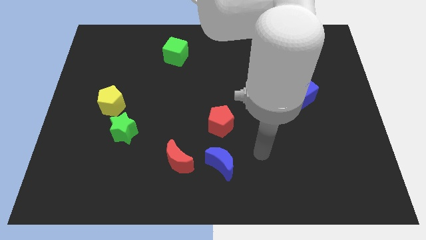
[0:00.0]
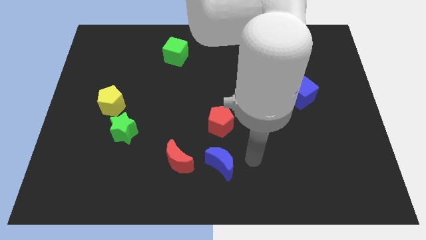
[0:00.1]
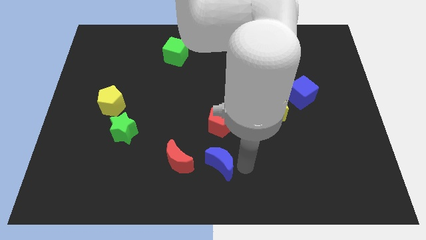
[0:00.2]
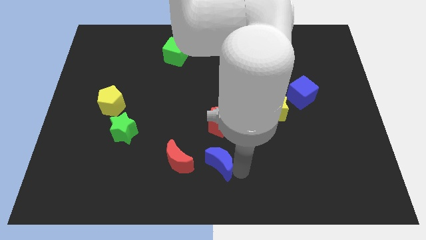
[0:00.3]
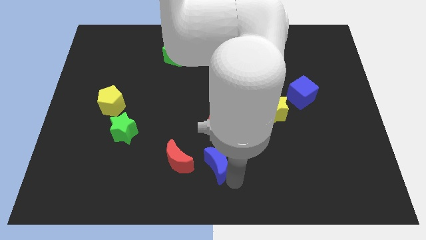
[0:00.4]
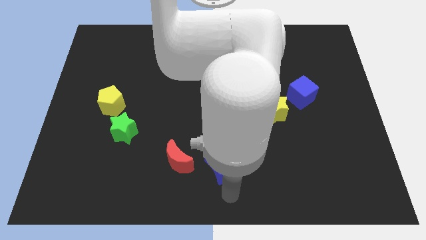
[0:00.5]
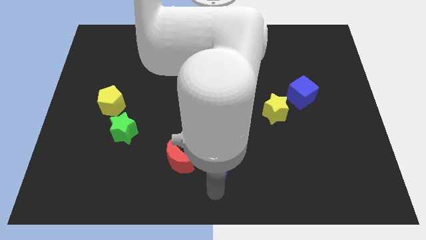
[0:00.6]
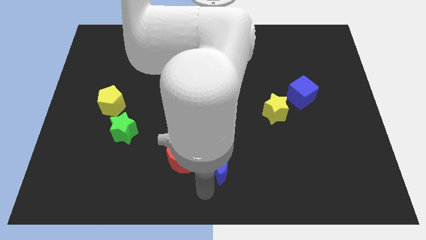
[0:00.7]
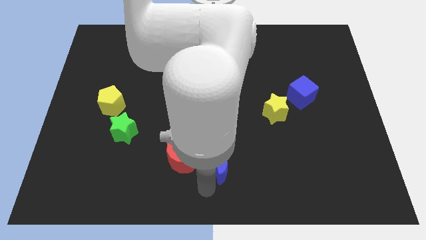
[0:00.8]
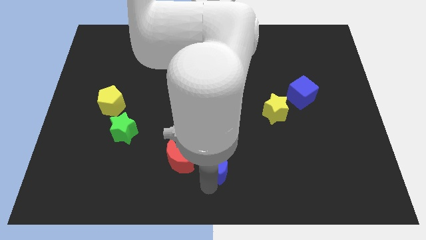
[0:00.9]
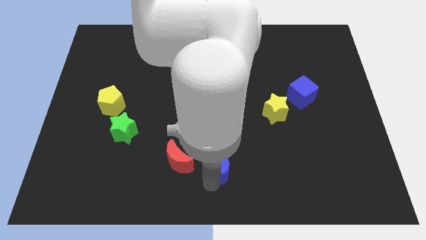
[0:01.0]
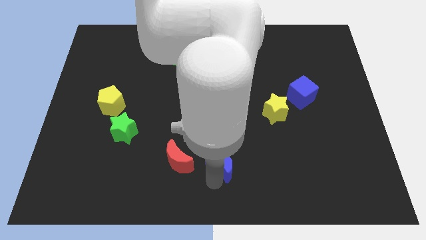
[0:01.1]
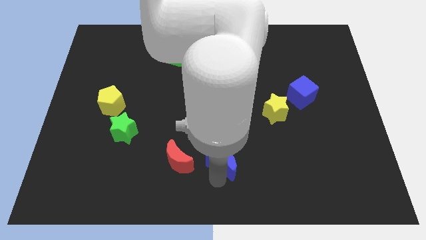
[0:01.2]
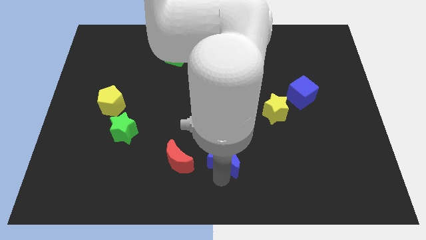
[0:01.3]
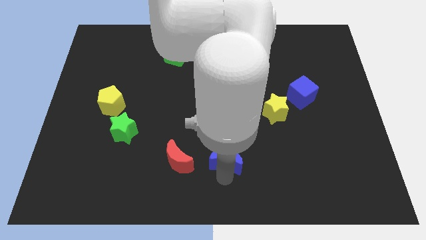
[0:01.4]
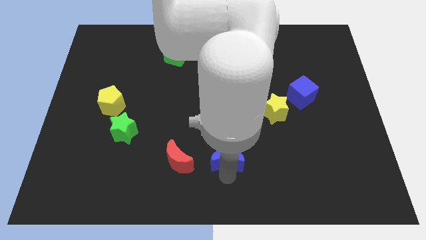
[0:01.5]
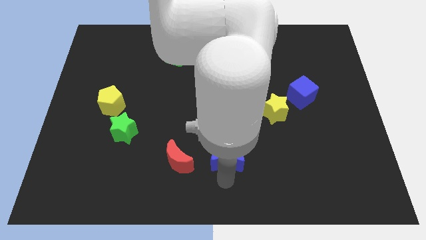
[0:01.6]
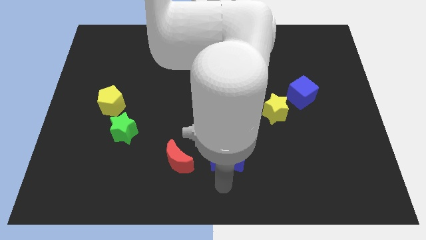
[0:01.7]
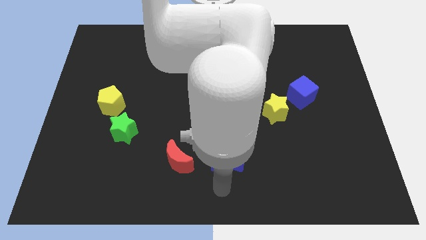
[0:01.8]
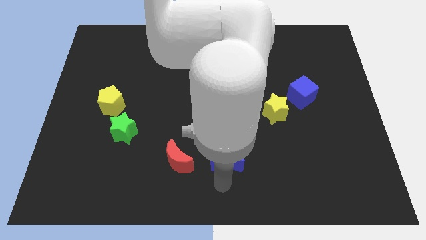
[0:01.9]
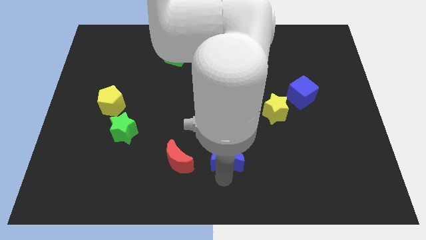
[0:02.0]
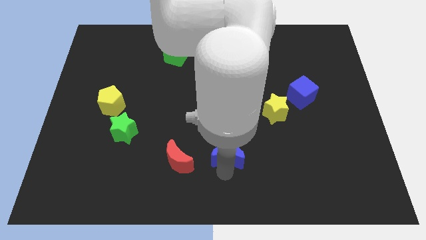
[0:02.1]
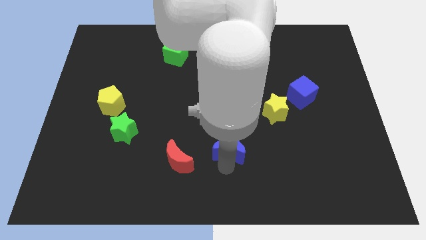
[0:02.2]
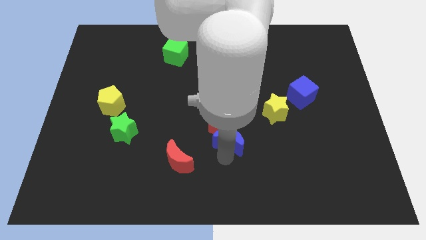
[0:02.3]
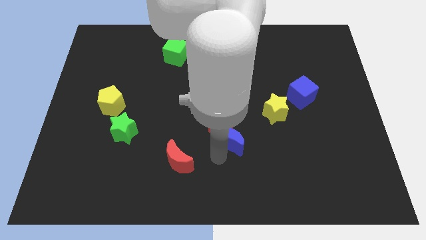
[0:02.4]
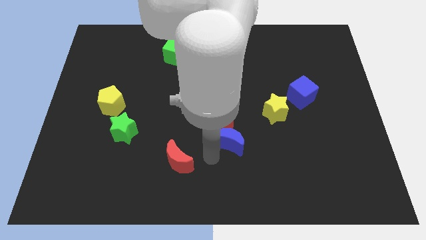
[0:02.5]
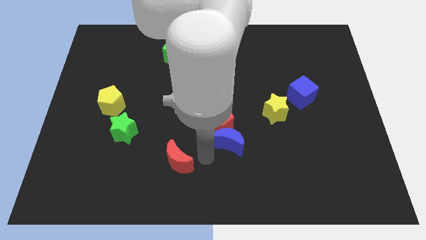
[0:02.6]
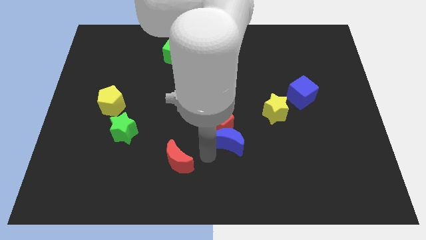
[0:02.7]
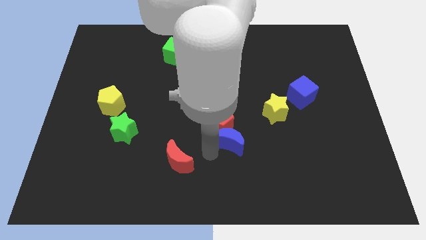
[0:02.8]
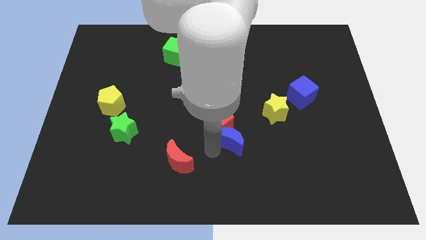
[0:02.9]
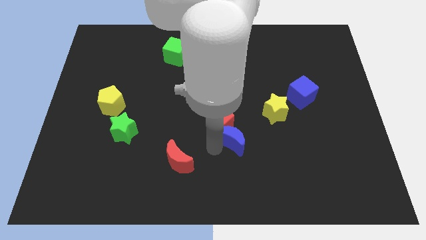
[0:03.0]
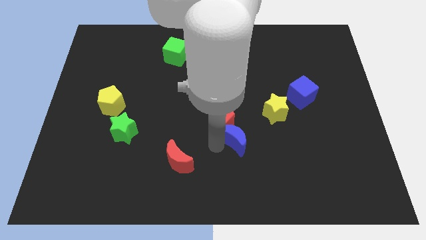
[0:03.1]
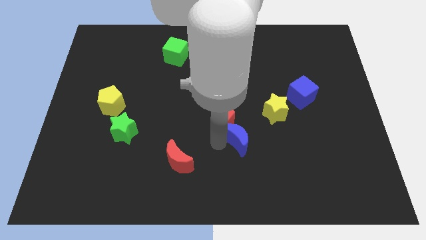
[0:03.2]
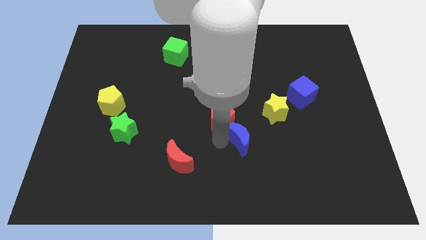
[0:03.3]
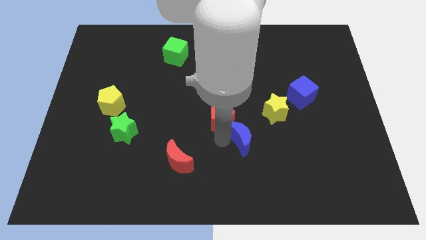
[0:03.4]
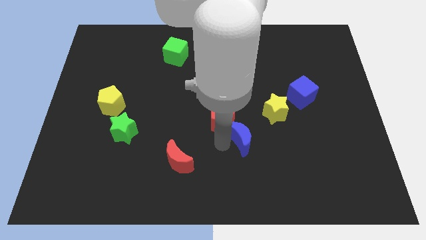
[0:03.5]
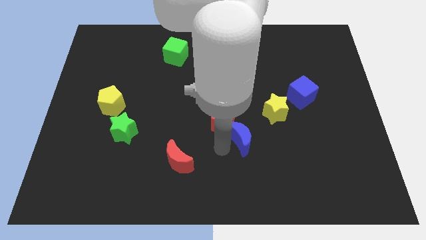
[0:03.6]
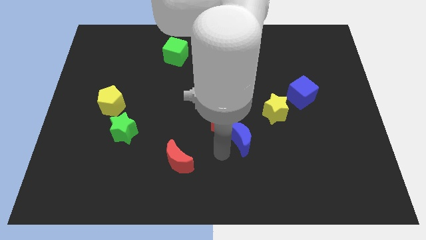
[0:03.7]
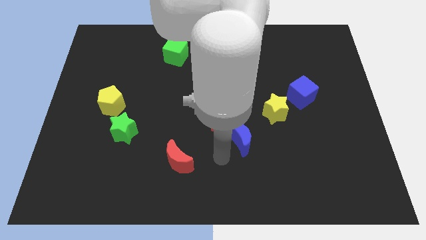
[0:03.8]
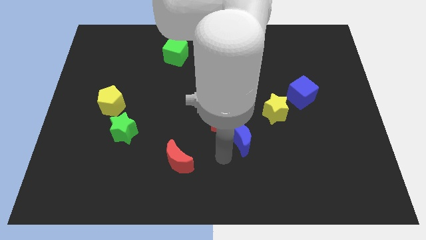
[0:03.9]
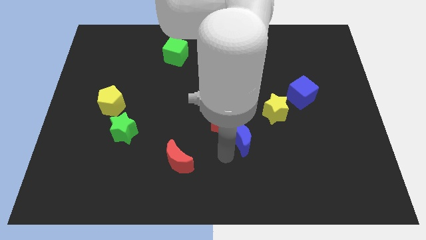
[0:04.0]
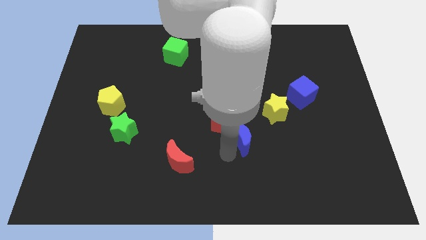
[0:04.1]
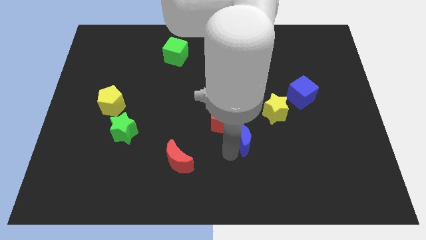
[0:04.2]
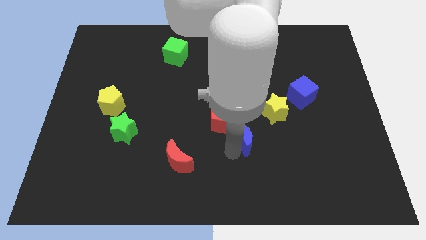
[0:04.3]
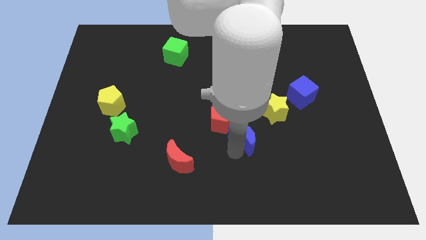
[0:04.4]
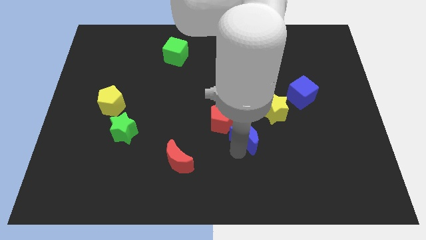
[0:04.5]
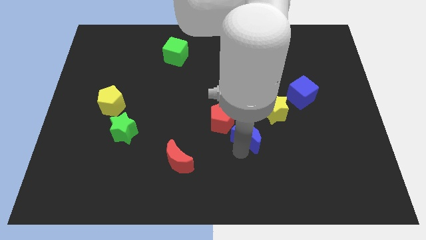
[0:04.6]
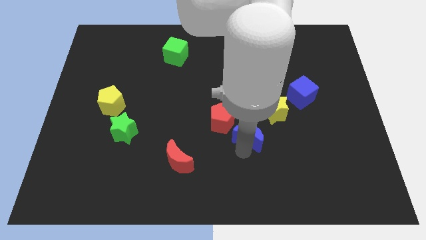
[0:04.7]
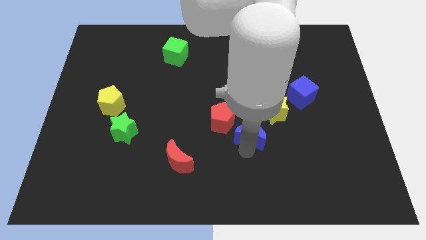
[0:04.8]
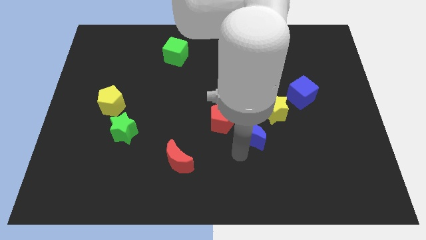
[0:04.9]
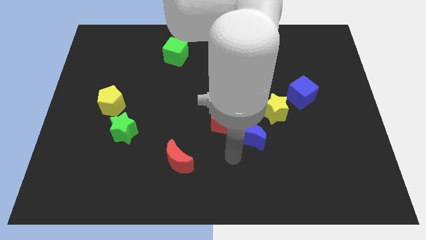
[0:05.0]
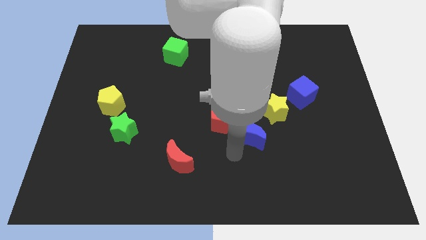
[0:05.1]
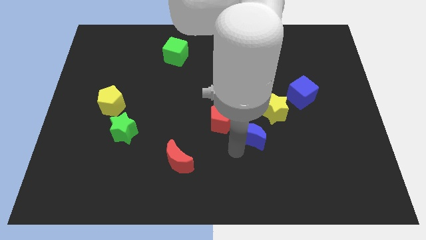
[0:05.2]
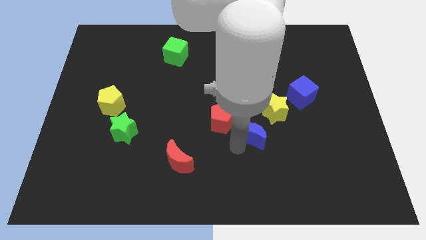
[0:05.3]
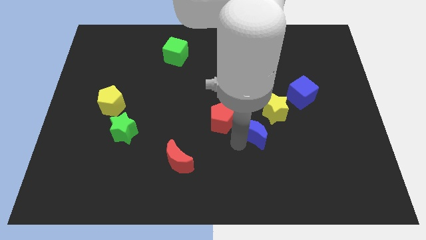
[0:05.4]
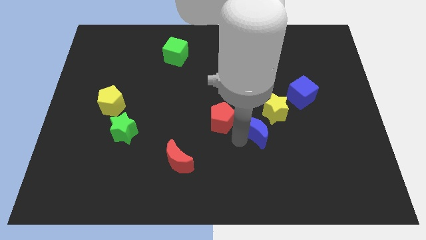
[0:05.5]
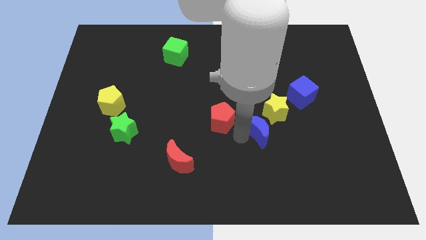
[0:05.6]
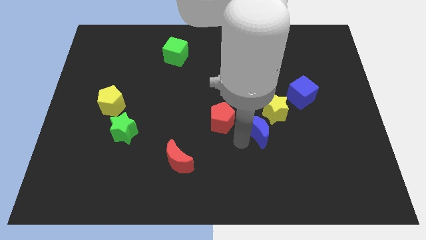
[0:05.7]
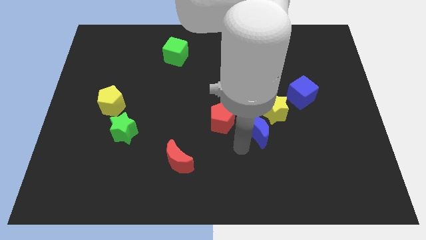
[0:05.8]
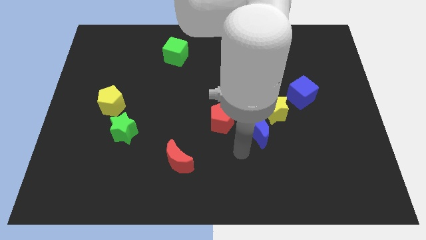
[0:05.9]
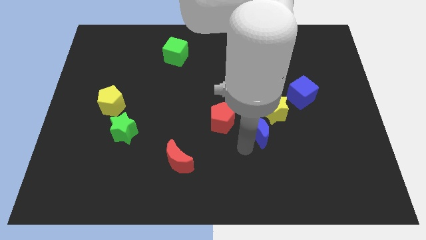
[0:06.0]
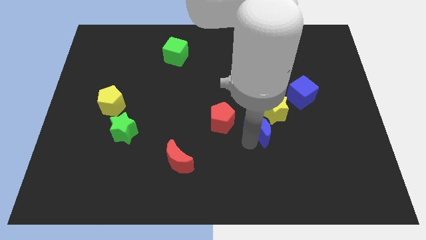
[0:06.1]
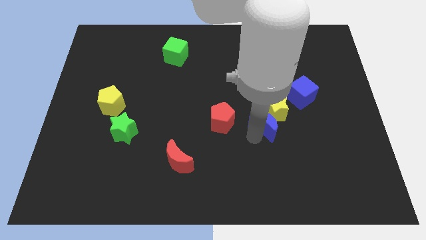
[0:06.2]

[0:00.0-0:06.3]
push the blue moon close to the yellow star

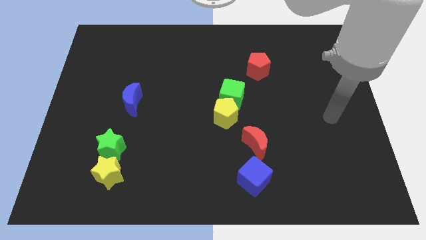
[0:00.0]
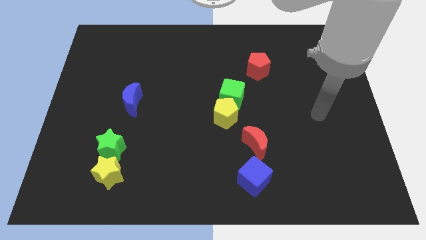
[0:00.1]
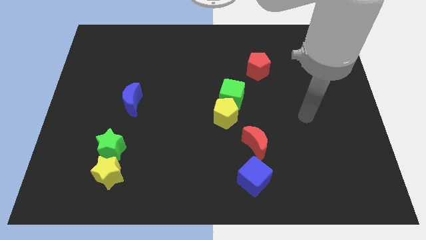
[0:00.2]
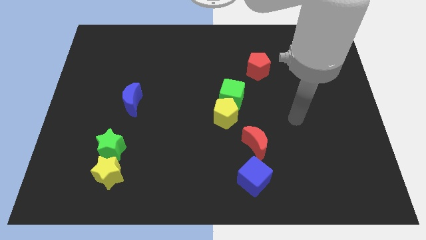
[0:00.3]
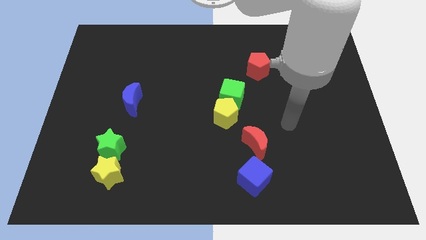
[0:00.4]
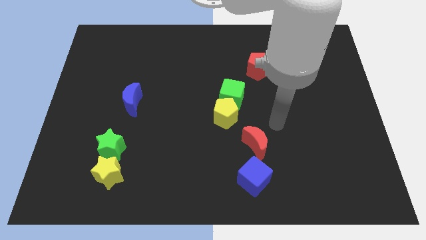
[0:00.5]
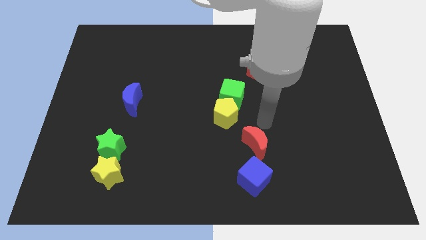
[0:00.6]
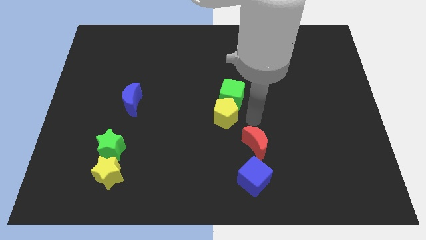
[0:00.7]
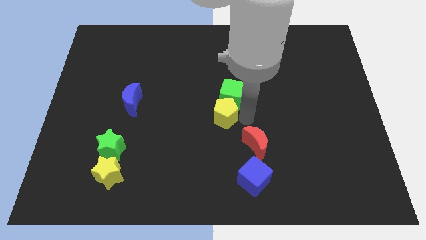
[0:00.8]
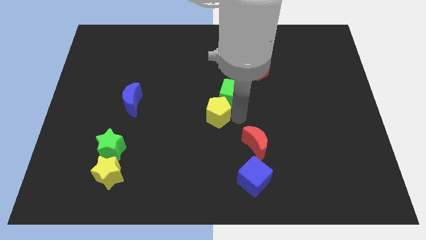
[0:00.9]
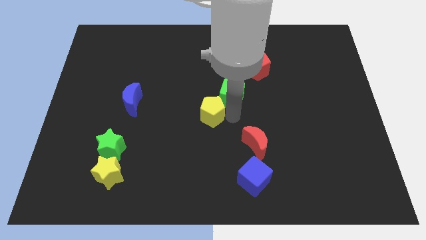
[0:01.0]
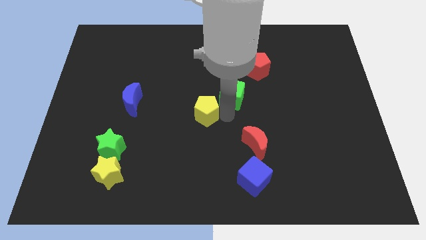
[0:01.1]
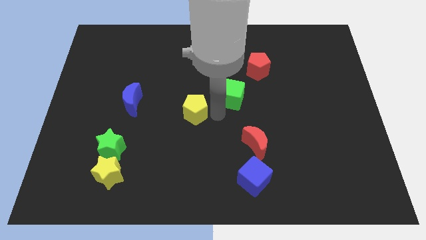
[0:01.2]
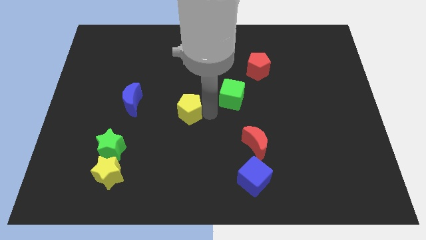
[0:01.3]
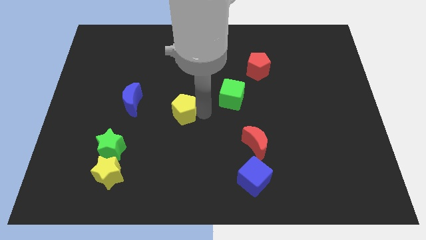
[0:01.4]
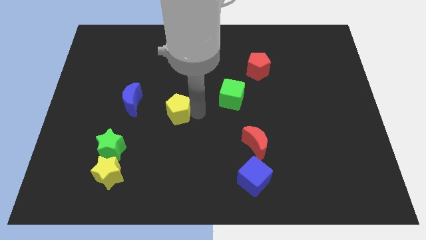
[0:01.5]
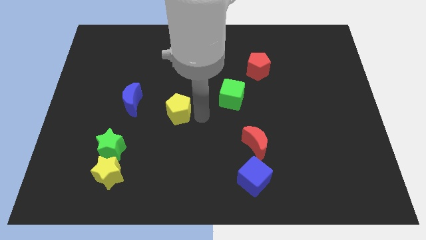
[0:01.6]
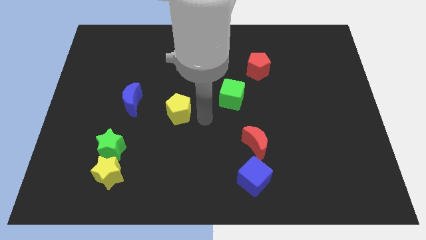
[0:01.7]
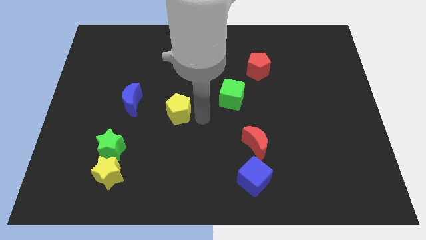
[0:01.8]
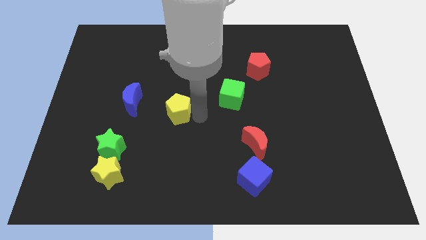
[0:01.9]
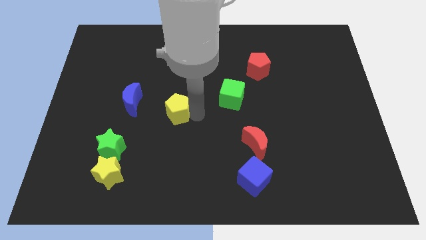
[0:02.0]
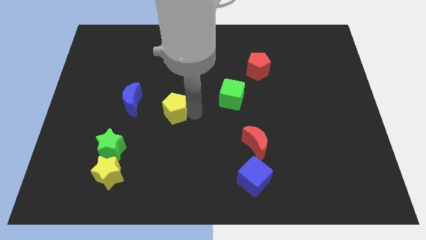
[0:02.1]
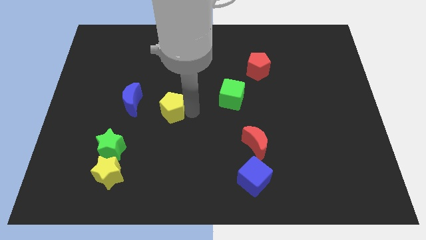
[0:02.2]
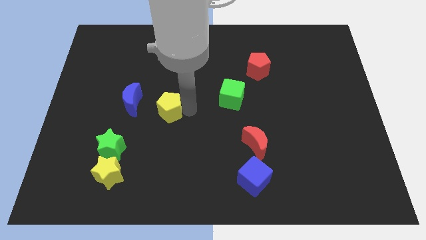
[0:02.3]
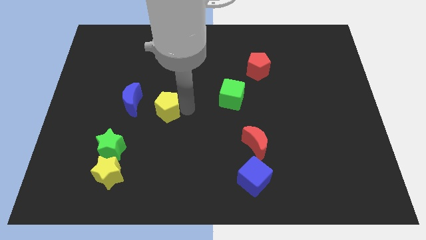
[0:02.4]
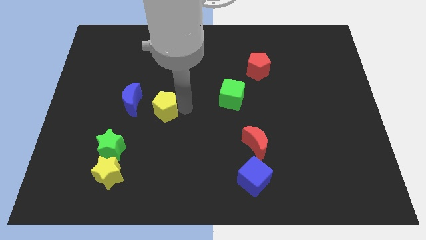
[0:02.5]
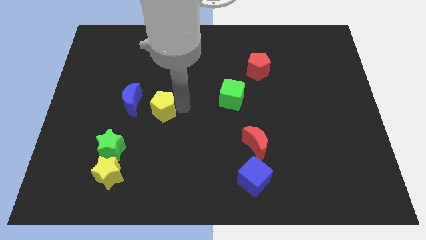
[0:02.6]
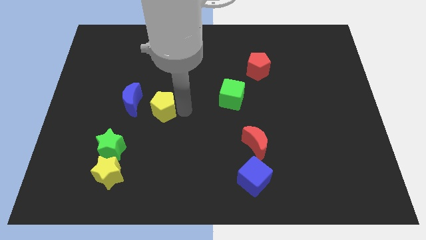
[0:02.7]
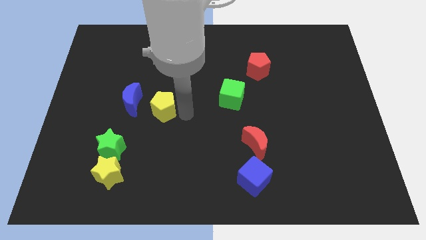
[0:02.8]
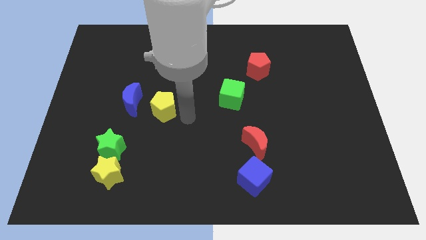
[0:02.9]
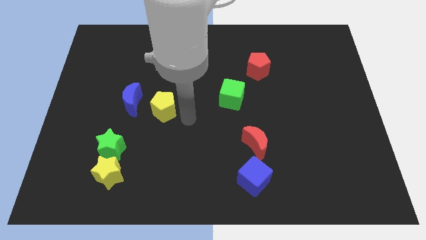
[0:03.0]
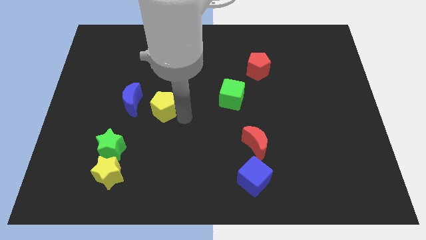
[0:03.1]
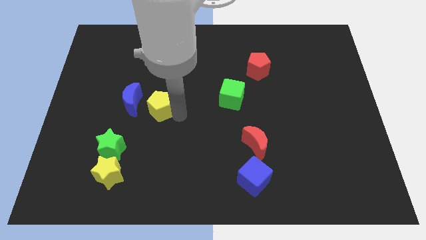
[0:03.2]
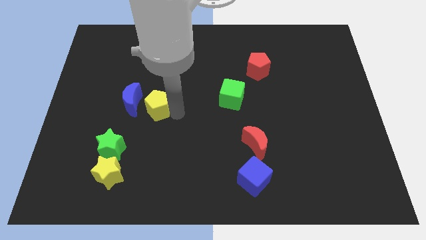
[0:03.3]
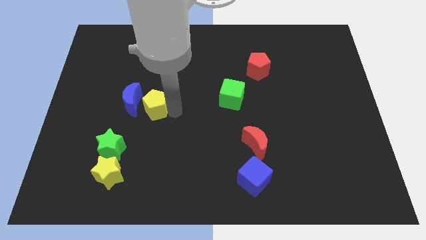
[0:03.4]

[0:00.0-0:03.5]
move the yellow pentagon close to the blue moon
